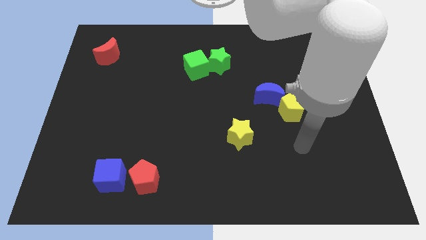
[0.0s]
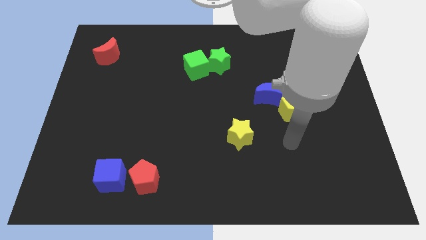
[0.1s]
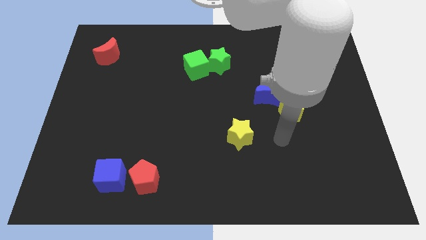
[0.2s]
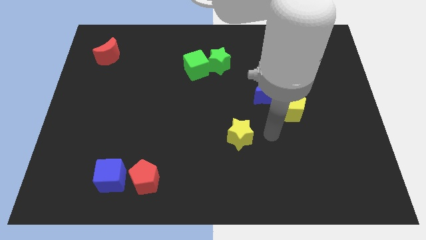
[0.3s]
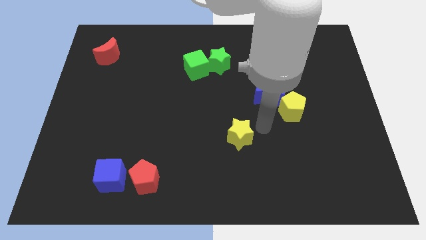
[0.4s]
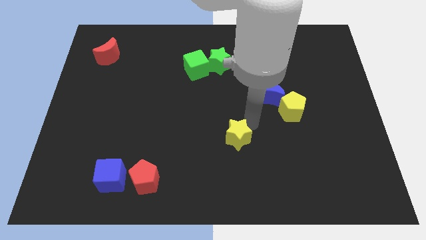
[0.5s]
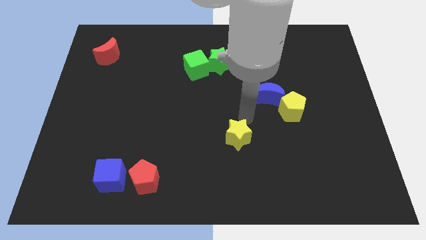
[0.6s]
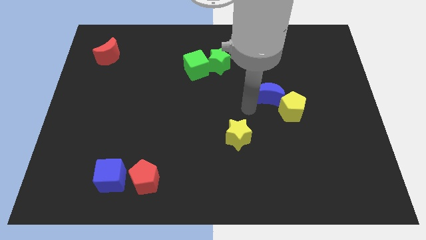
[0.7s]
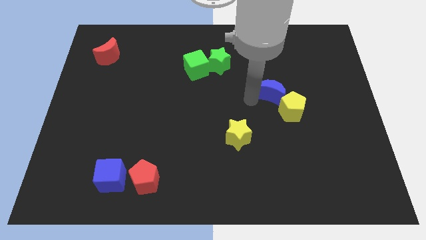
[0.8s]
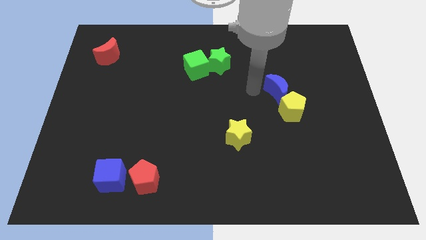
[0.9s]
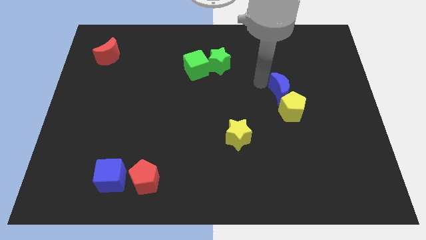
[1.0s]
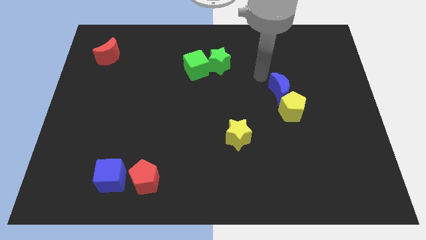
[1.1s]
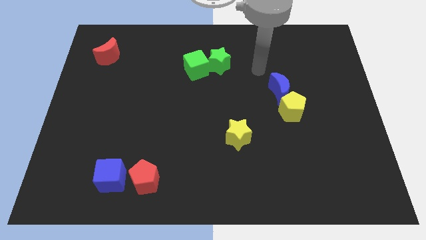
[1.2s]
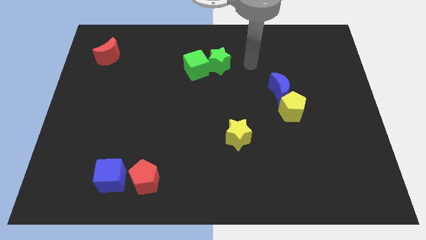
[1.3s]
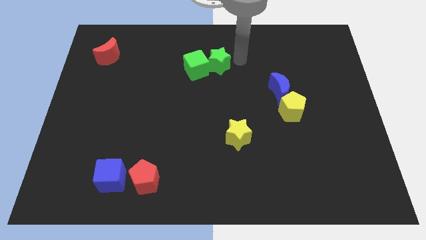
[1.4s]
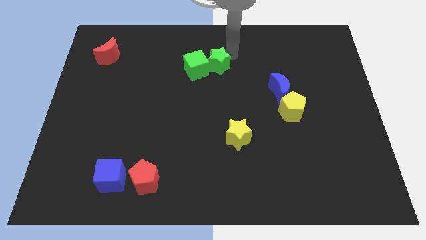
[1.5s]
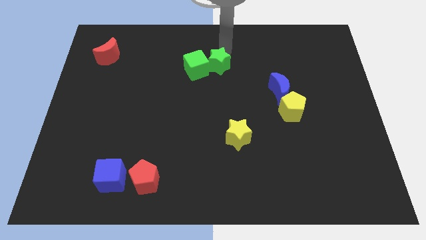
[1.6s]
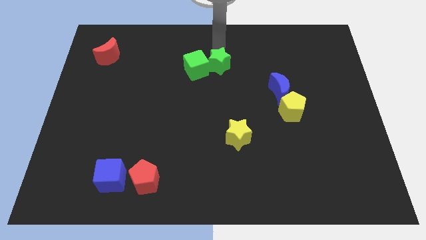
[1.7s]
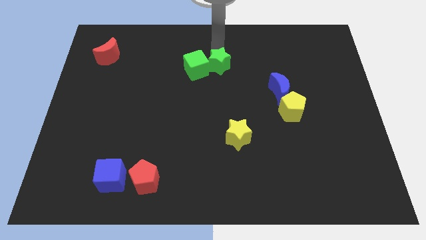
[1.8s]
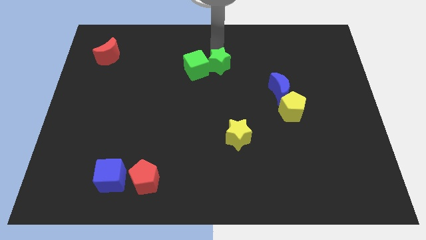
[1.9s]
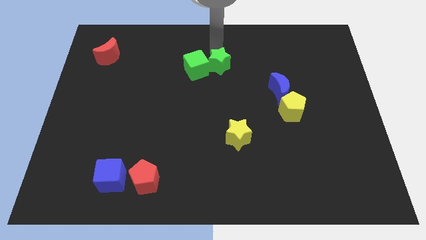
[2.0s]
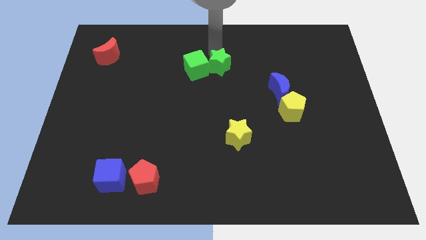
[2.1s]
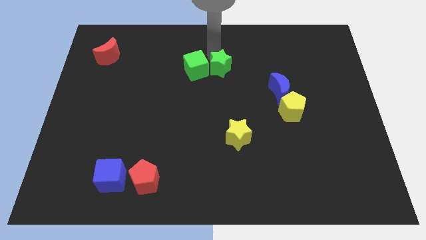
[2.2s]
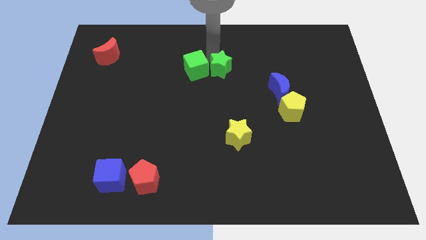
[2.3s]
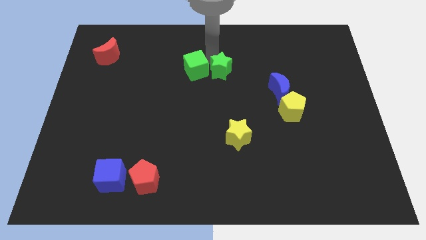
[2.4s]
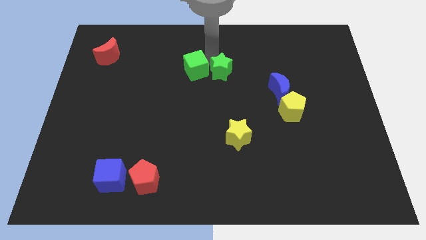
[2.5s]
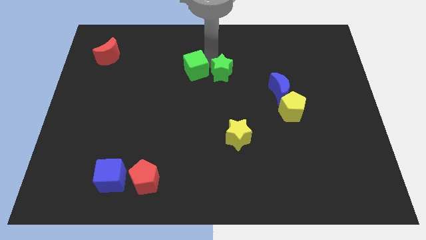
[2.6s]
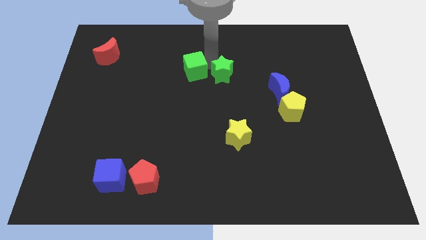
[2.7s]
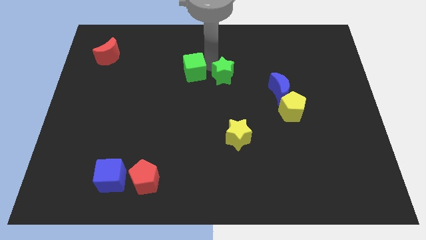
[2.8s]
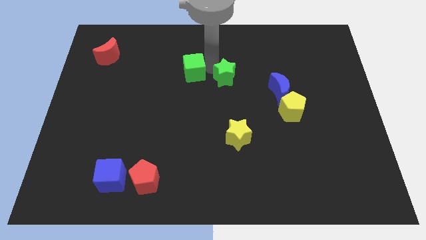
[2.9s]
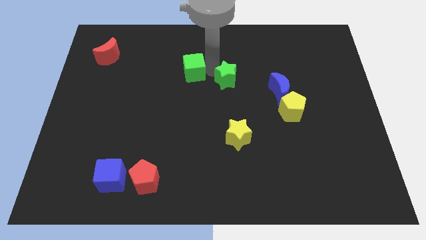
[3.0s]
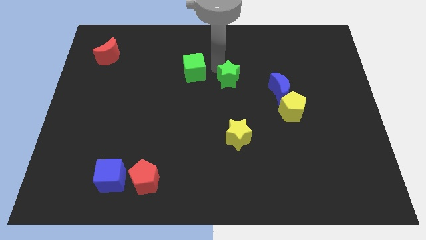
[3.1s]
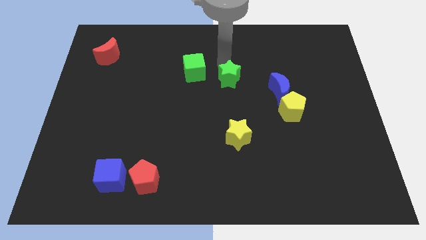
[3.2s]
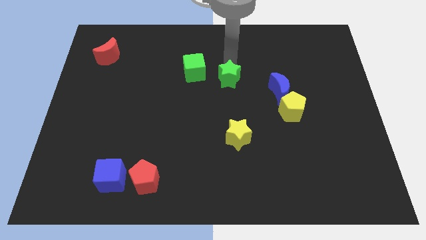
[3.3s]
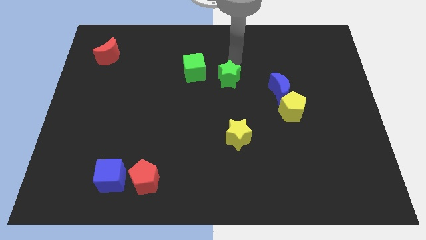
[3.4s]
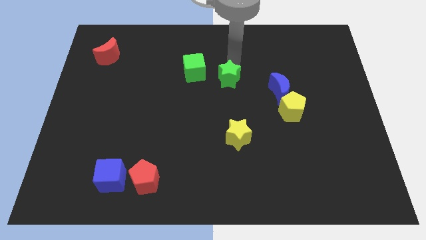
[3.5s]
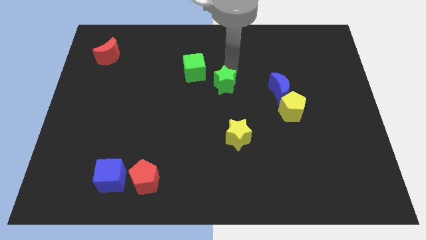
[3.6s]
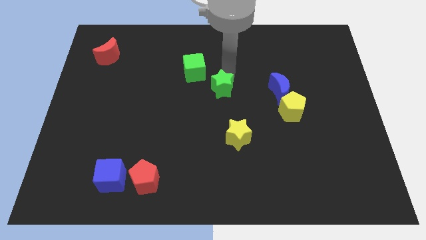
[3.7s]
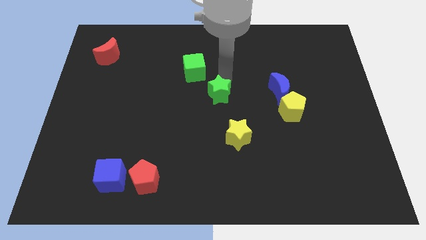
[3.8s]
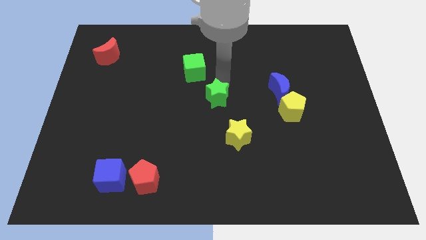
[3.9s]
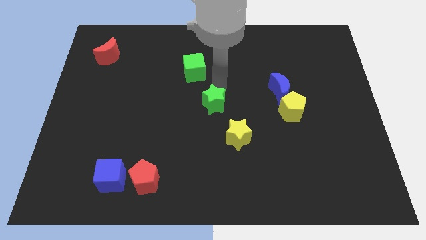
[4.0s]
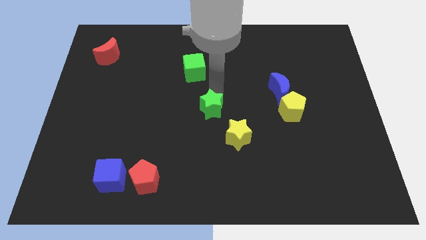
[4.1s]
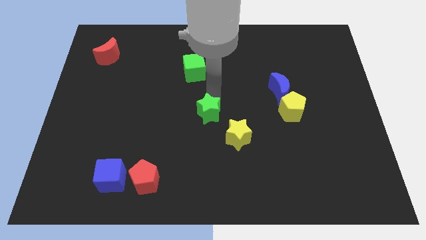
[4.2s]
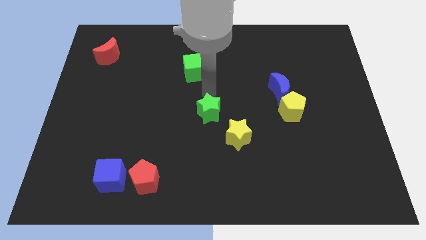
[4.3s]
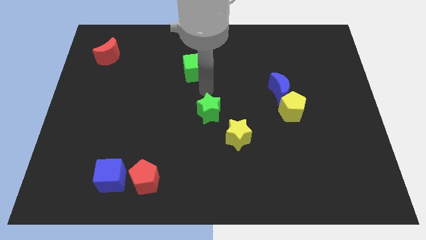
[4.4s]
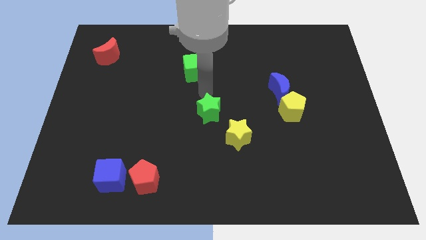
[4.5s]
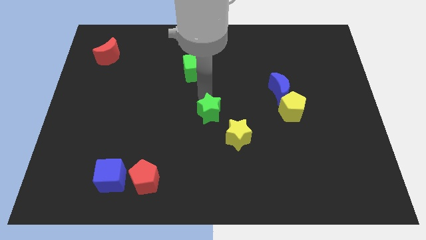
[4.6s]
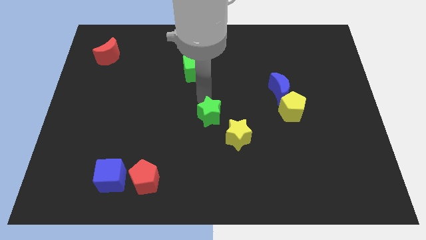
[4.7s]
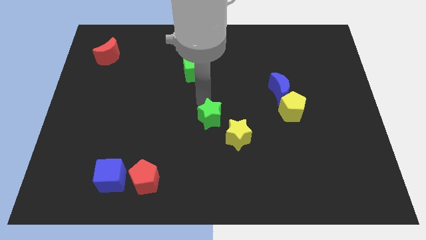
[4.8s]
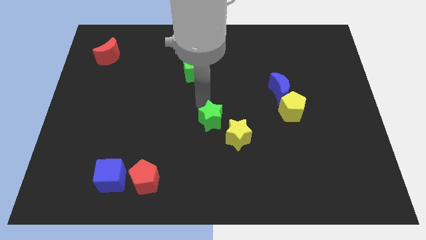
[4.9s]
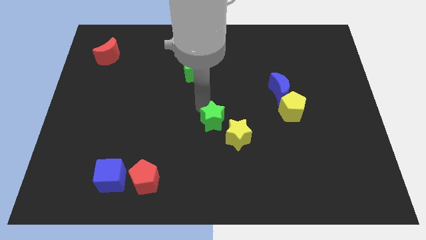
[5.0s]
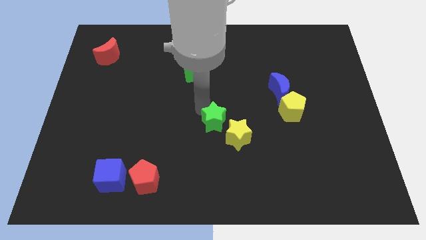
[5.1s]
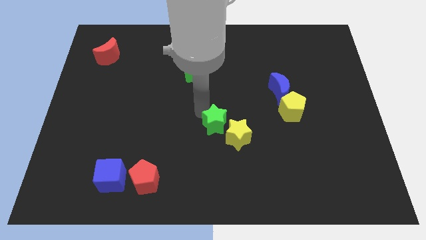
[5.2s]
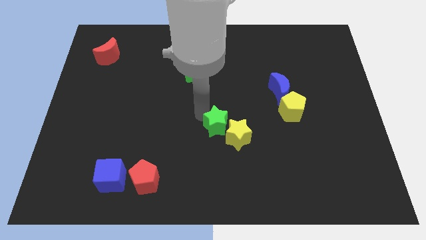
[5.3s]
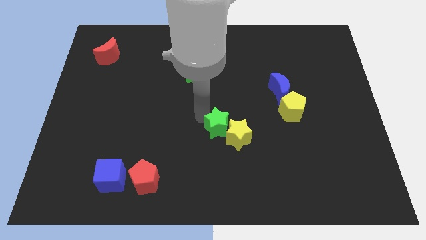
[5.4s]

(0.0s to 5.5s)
push the green star downwards

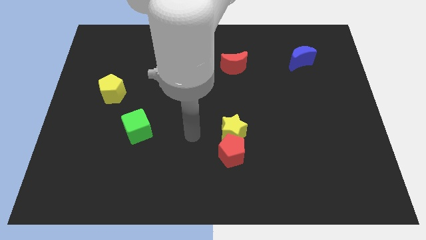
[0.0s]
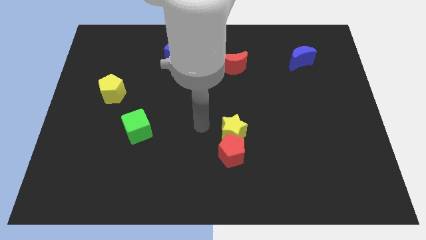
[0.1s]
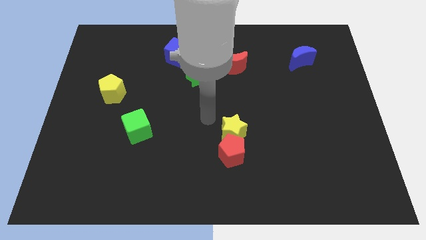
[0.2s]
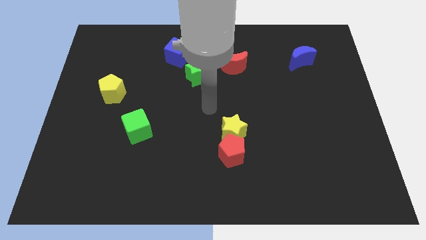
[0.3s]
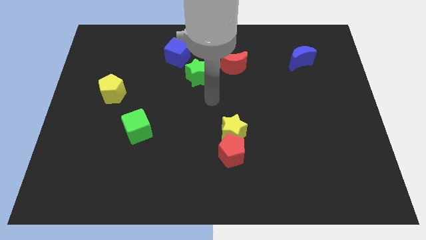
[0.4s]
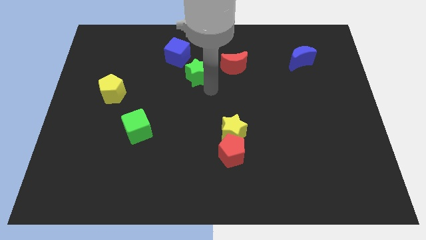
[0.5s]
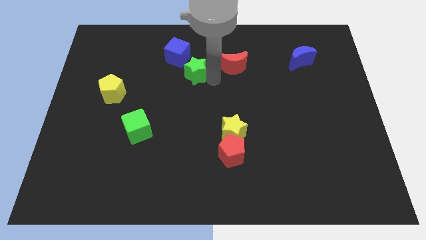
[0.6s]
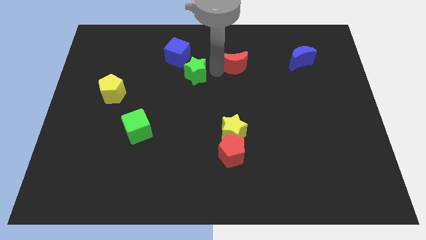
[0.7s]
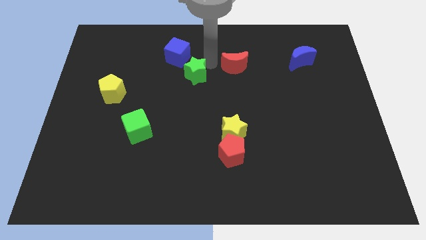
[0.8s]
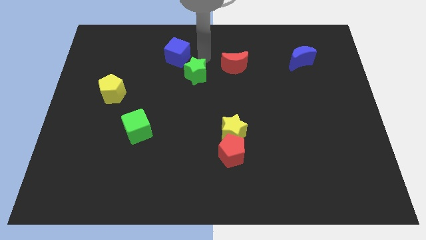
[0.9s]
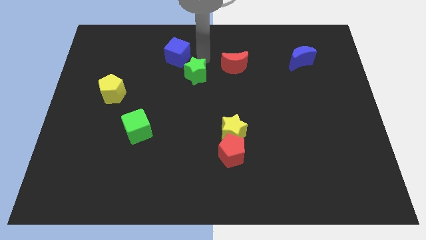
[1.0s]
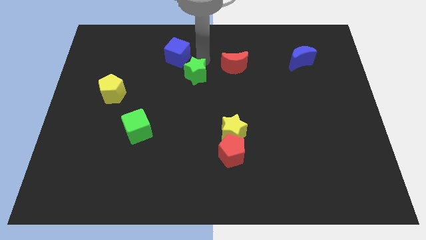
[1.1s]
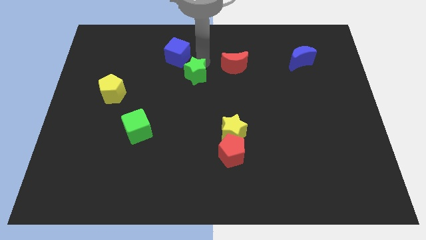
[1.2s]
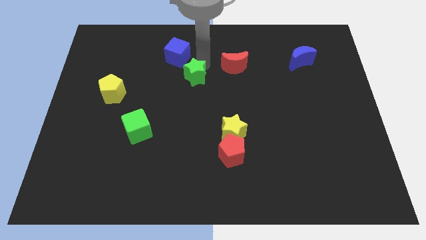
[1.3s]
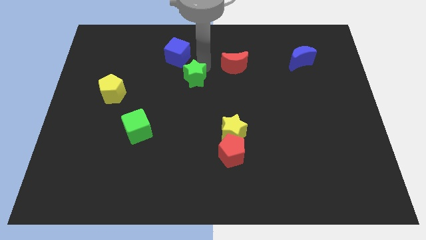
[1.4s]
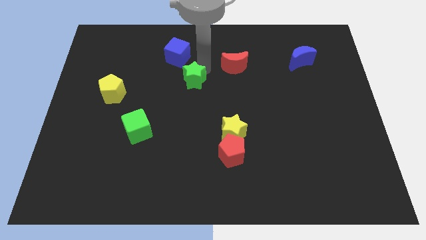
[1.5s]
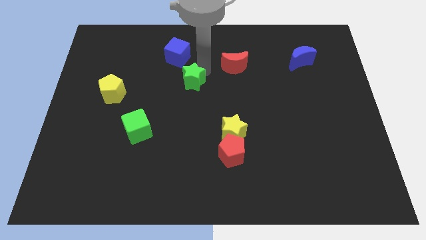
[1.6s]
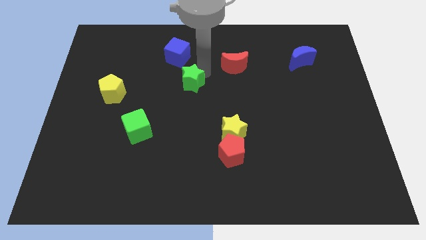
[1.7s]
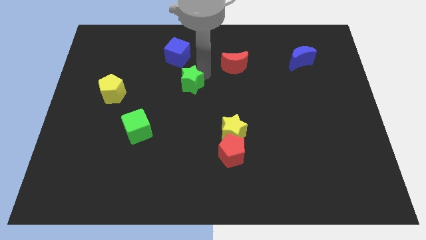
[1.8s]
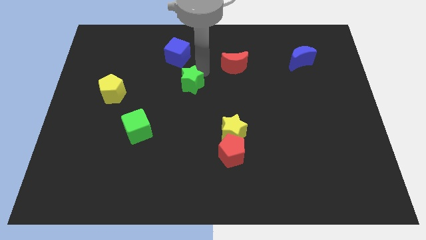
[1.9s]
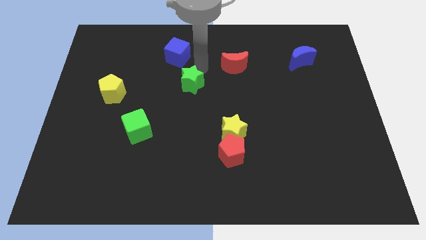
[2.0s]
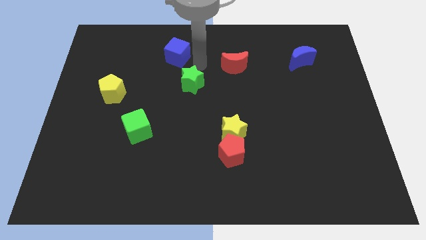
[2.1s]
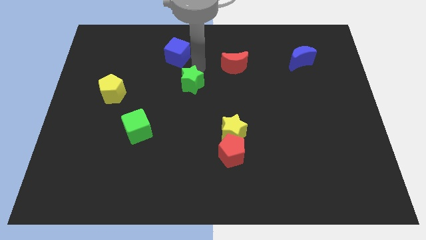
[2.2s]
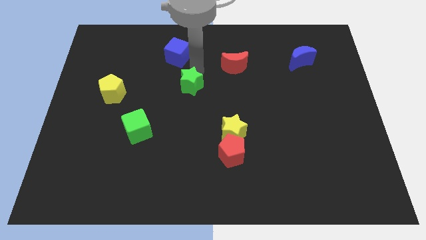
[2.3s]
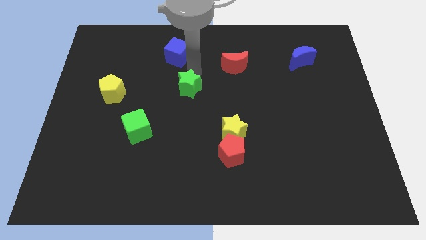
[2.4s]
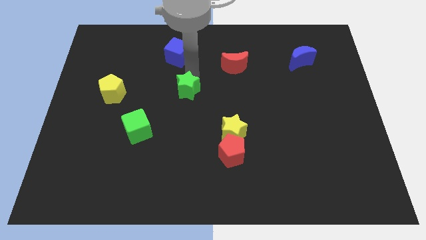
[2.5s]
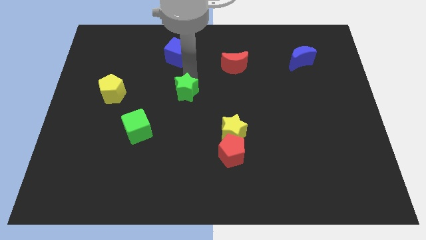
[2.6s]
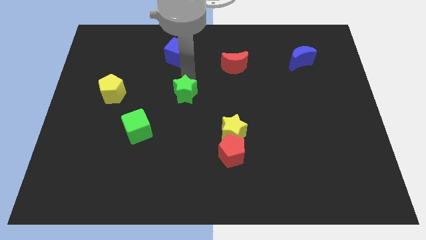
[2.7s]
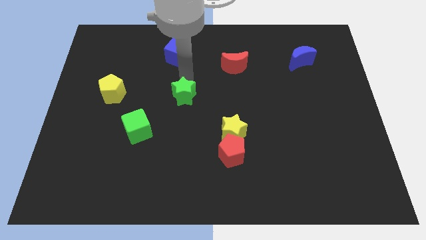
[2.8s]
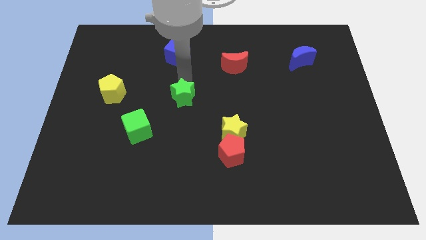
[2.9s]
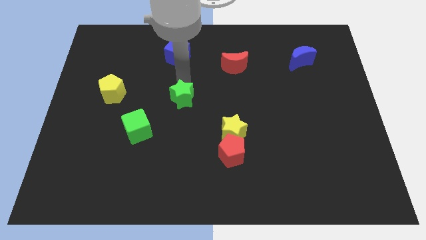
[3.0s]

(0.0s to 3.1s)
slightly slide the green star down
